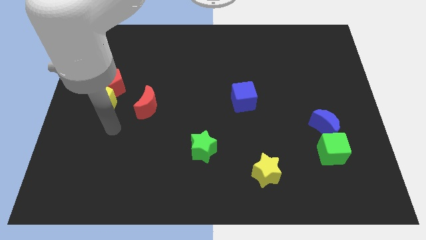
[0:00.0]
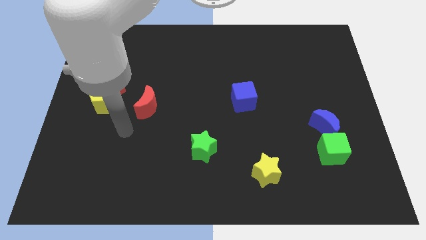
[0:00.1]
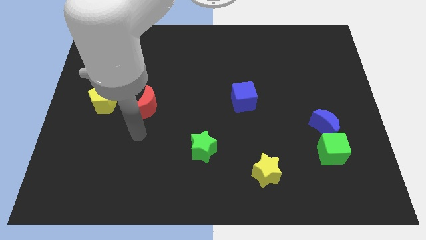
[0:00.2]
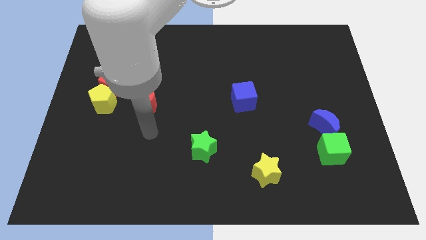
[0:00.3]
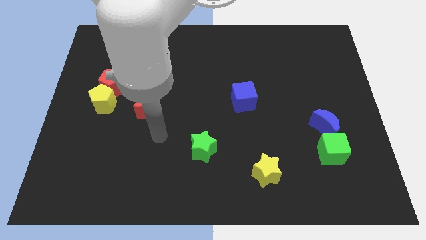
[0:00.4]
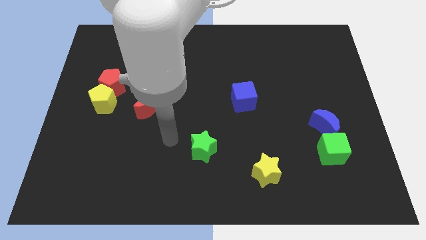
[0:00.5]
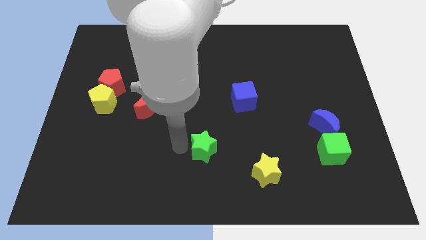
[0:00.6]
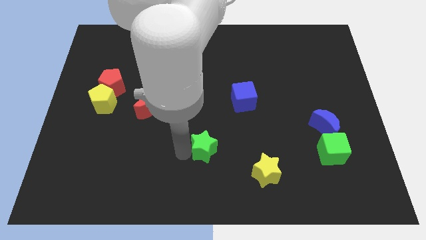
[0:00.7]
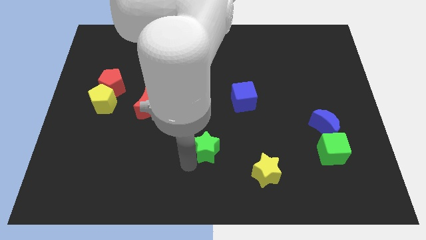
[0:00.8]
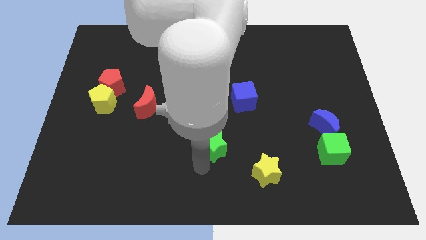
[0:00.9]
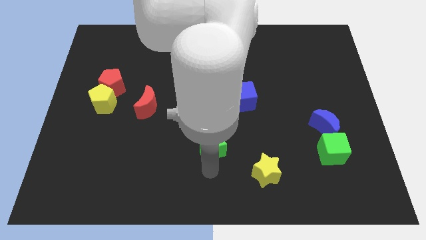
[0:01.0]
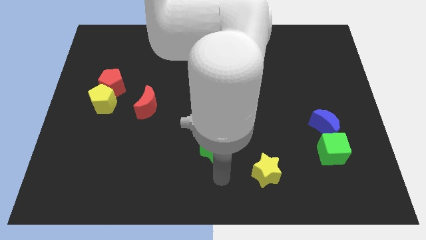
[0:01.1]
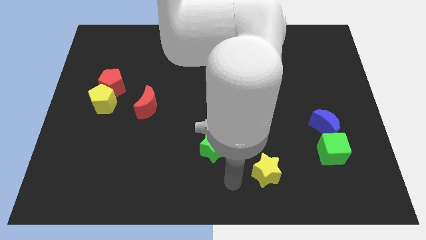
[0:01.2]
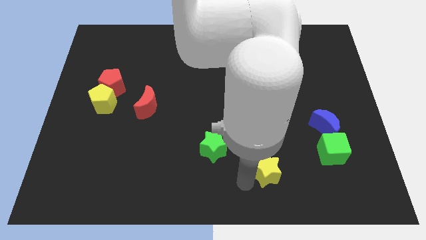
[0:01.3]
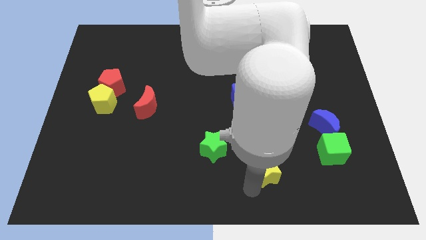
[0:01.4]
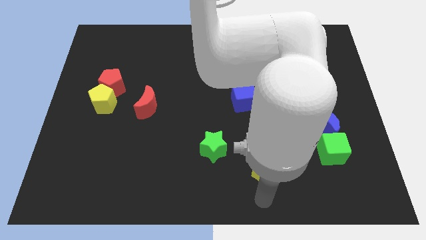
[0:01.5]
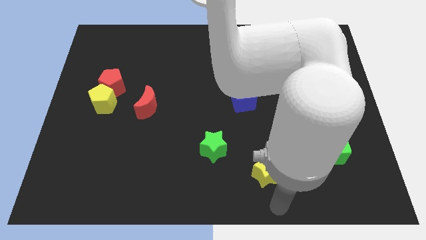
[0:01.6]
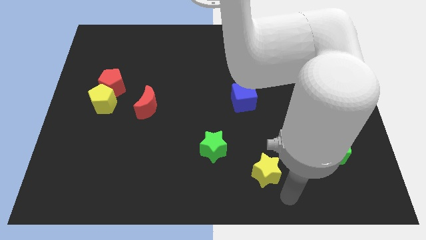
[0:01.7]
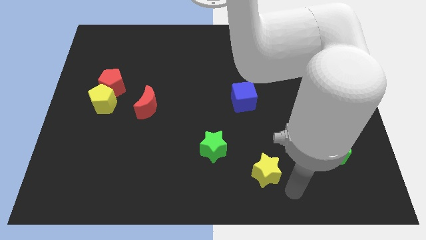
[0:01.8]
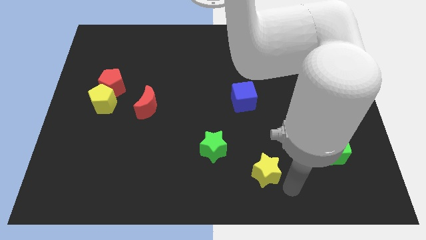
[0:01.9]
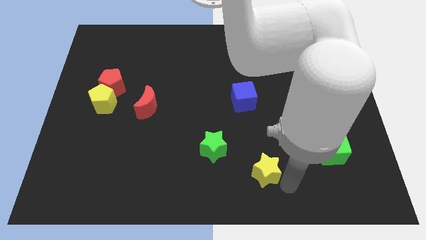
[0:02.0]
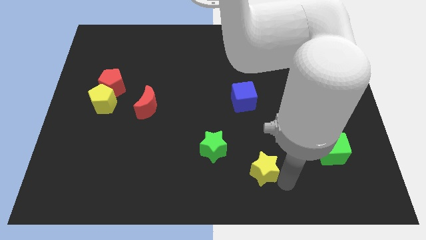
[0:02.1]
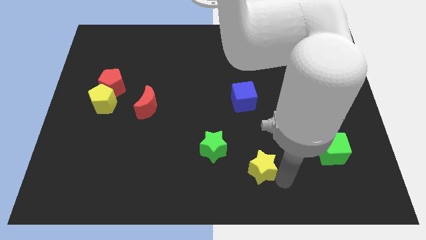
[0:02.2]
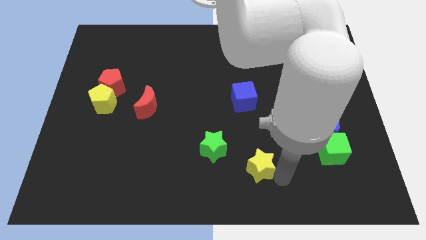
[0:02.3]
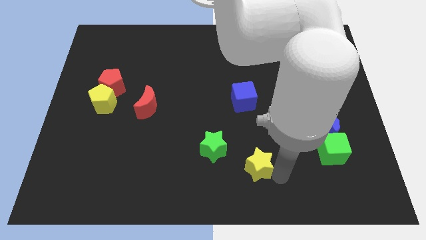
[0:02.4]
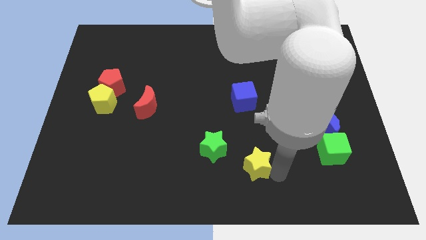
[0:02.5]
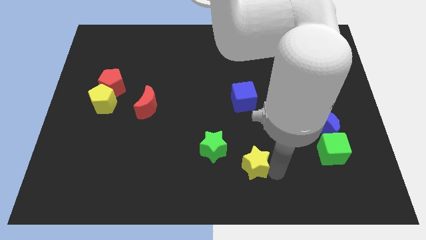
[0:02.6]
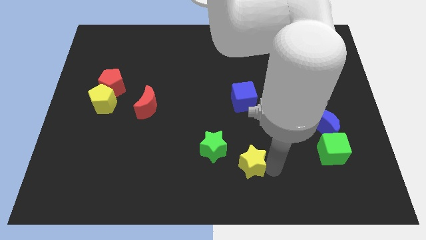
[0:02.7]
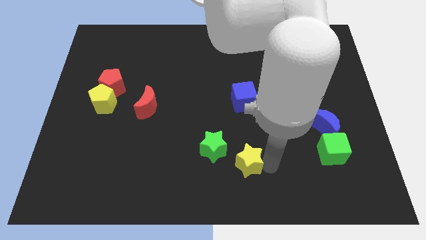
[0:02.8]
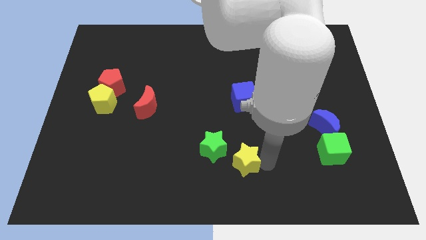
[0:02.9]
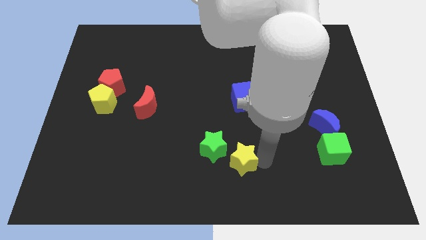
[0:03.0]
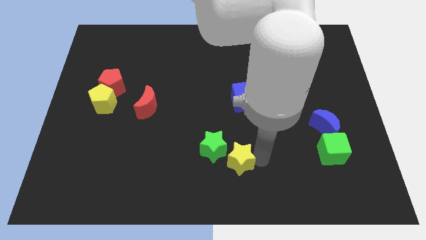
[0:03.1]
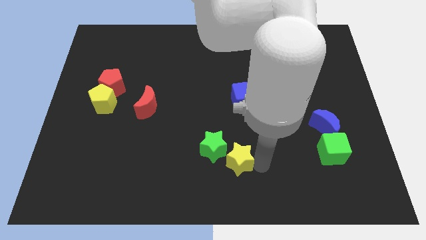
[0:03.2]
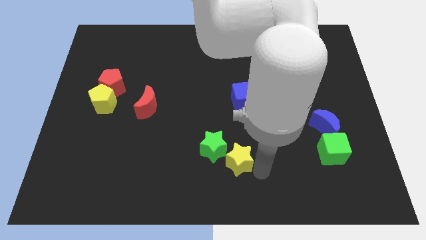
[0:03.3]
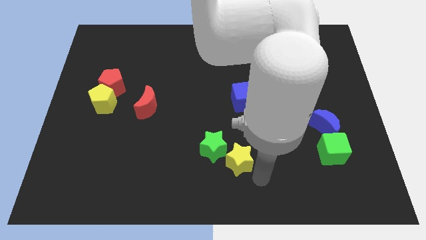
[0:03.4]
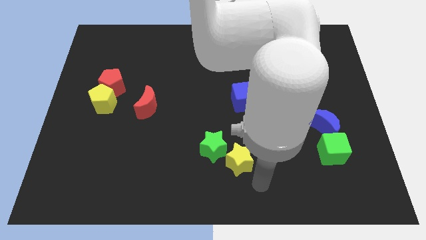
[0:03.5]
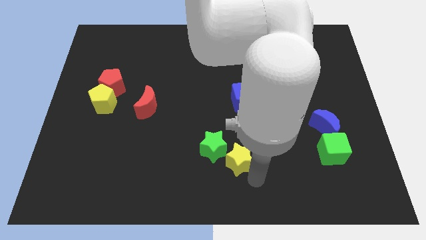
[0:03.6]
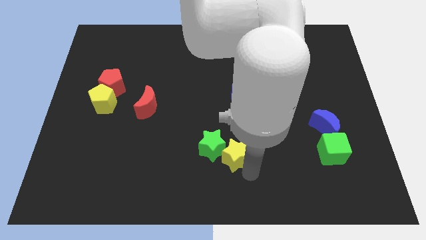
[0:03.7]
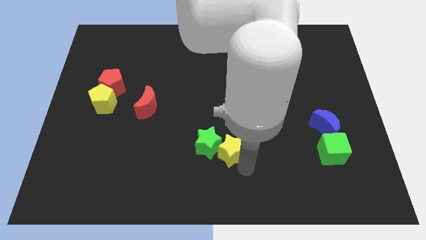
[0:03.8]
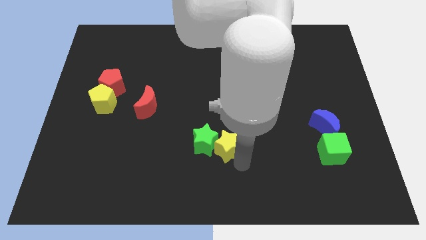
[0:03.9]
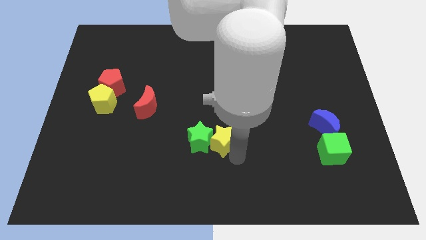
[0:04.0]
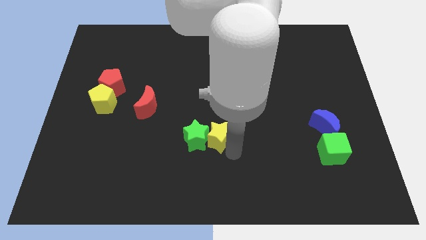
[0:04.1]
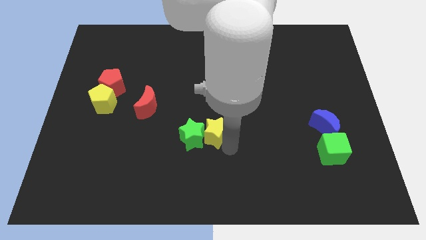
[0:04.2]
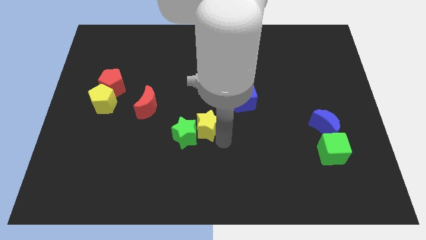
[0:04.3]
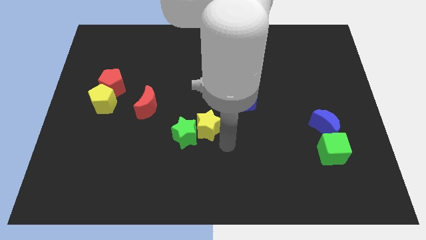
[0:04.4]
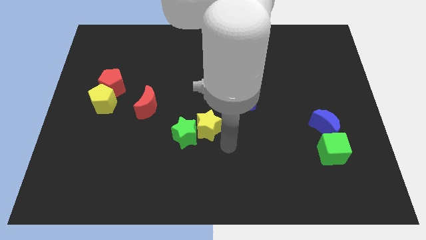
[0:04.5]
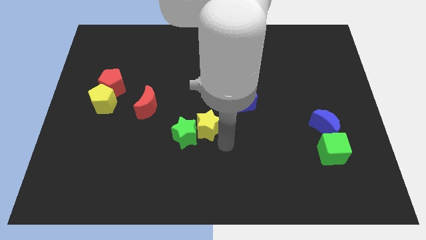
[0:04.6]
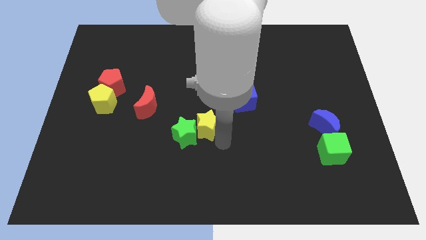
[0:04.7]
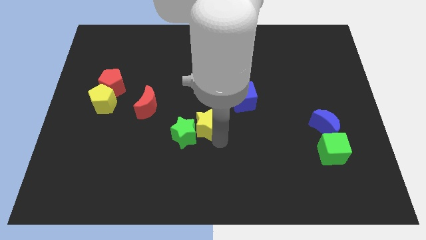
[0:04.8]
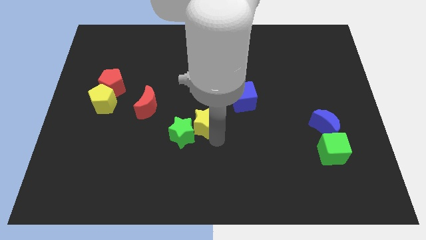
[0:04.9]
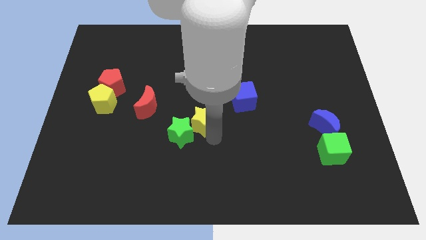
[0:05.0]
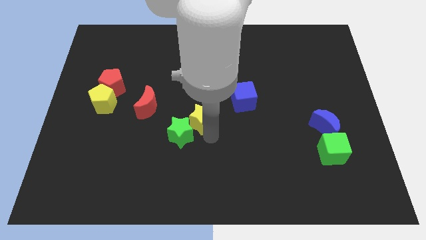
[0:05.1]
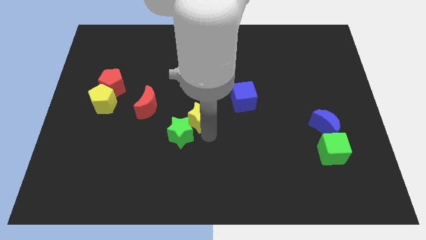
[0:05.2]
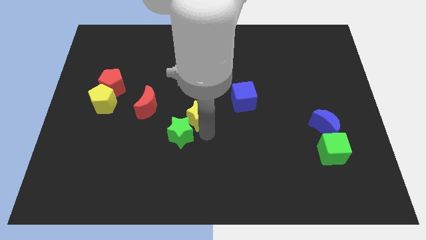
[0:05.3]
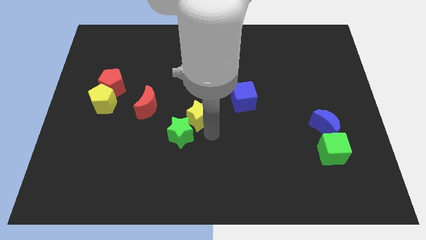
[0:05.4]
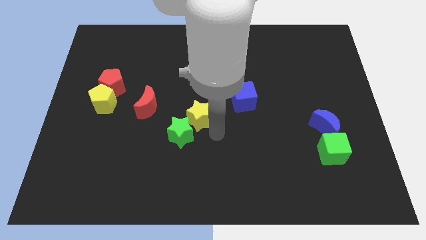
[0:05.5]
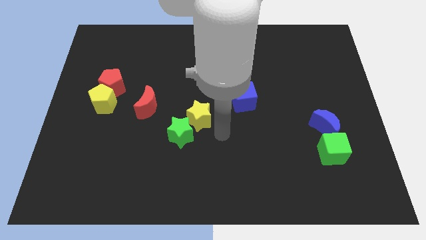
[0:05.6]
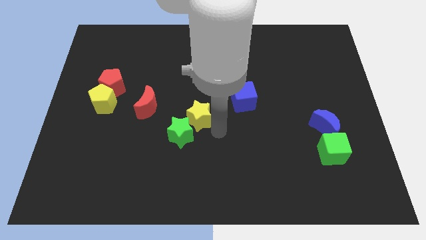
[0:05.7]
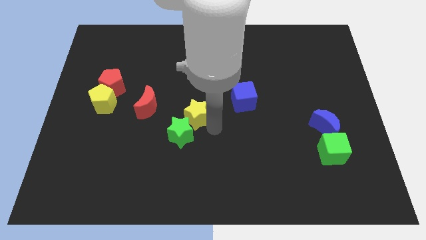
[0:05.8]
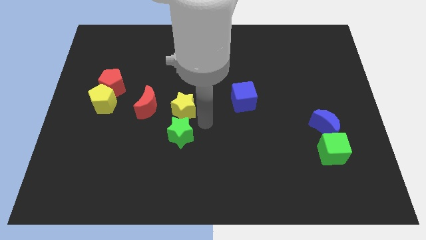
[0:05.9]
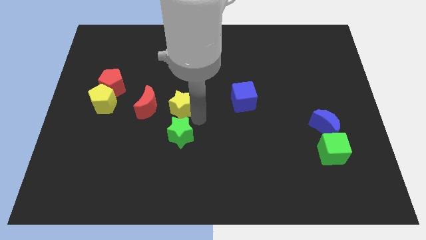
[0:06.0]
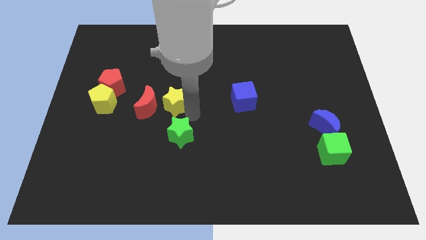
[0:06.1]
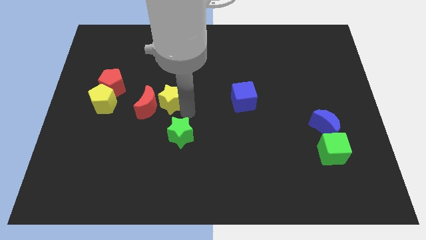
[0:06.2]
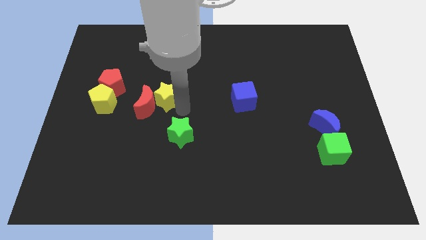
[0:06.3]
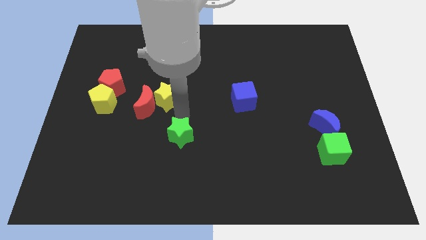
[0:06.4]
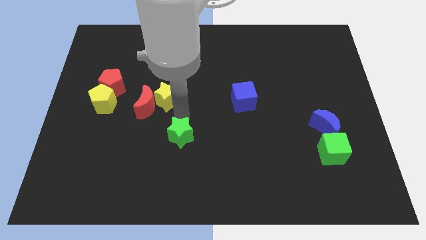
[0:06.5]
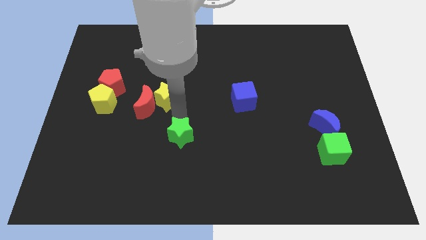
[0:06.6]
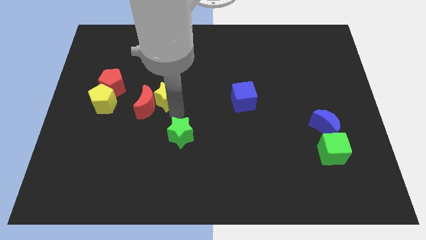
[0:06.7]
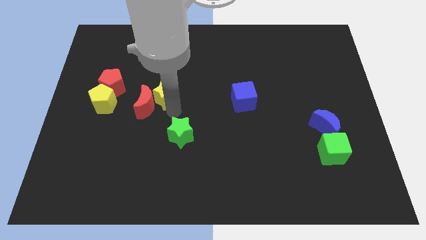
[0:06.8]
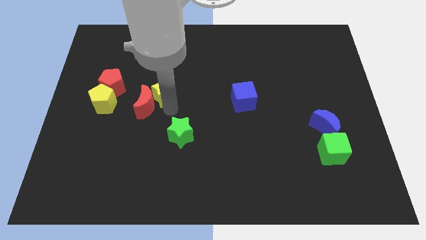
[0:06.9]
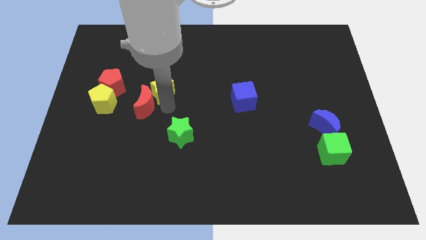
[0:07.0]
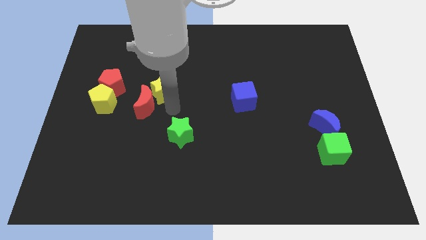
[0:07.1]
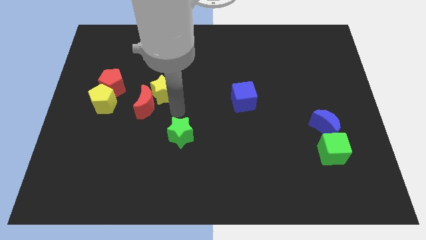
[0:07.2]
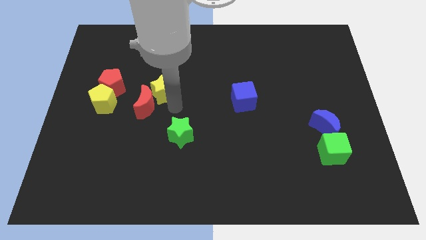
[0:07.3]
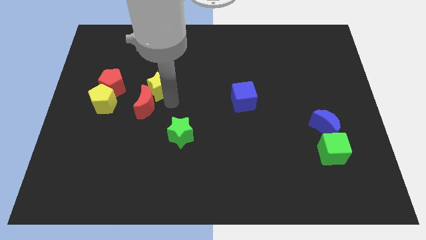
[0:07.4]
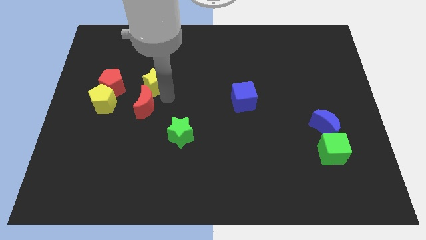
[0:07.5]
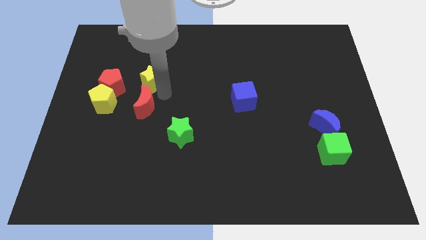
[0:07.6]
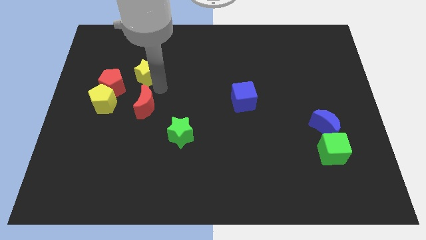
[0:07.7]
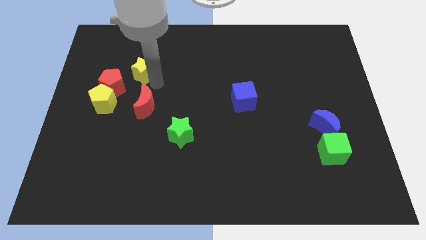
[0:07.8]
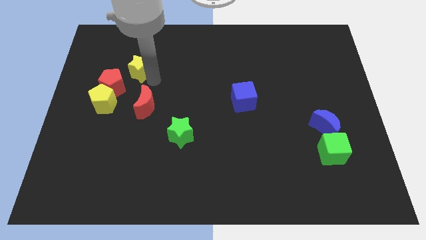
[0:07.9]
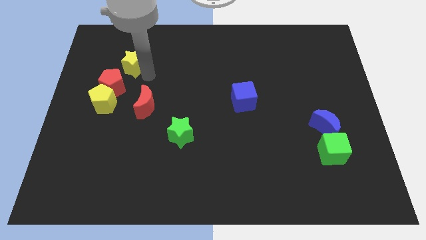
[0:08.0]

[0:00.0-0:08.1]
slide the yellow star to the top of the red pentagon
